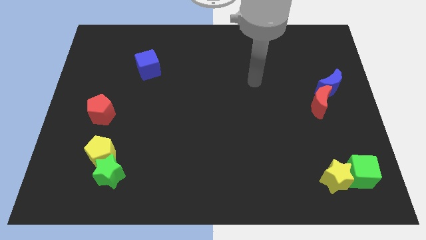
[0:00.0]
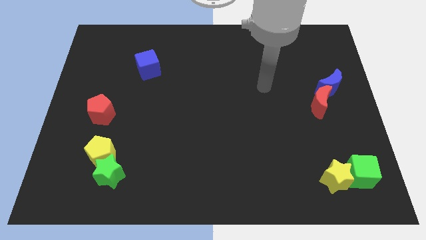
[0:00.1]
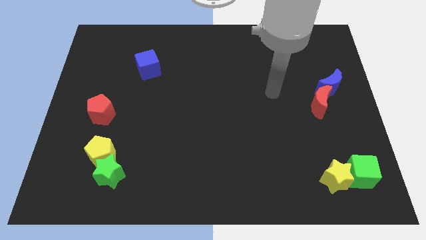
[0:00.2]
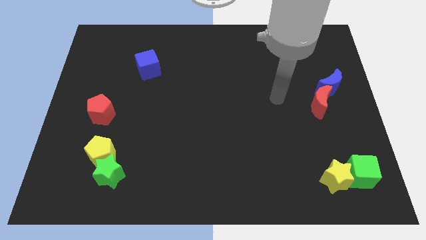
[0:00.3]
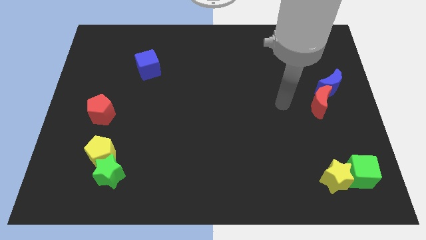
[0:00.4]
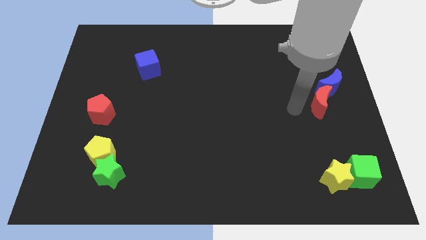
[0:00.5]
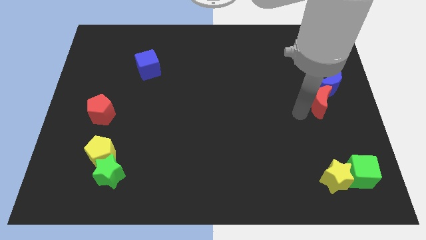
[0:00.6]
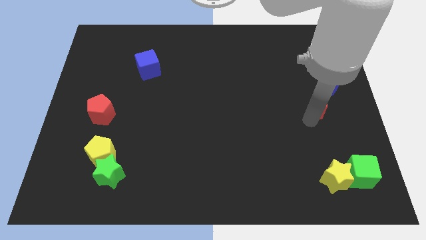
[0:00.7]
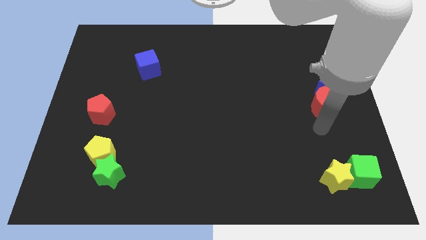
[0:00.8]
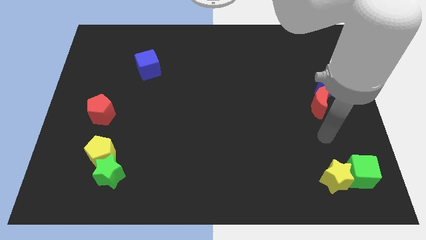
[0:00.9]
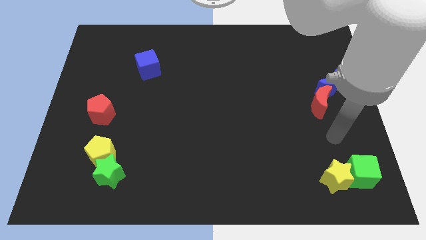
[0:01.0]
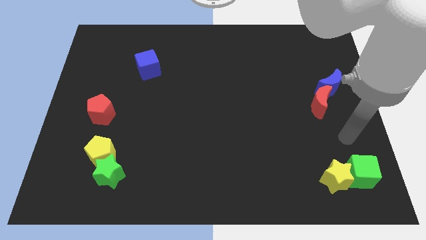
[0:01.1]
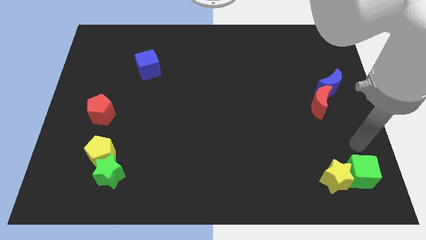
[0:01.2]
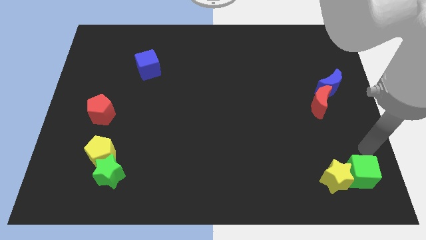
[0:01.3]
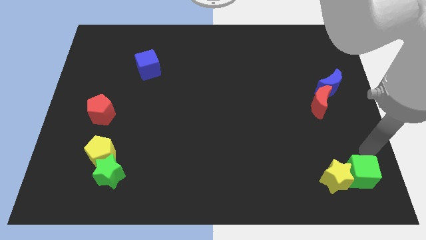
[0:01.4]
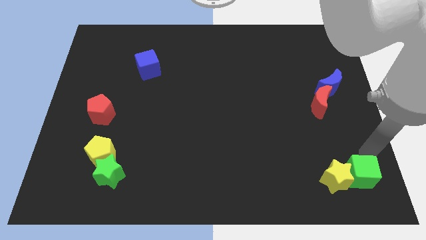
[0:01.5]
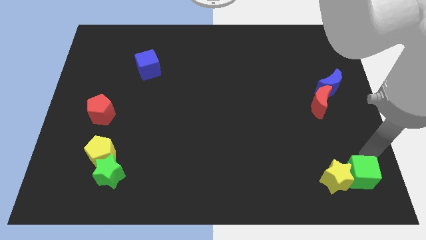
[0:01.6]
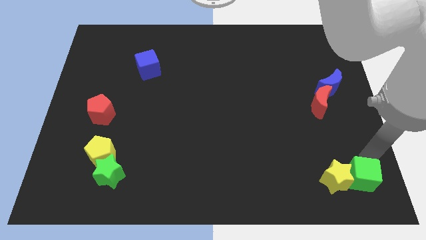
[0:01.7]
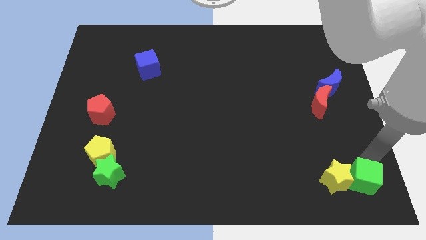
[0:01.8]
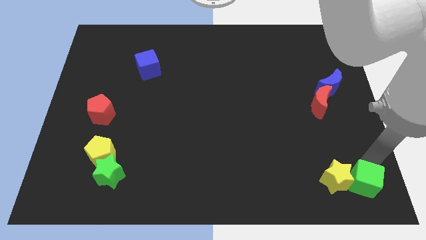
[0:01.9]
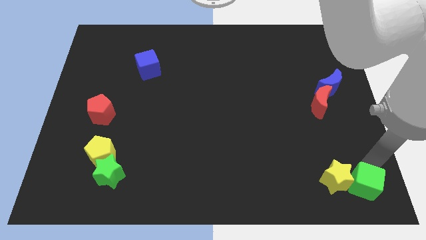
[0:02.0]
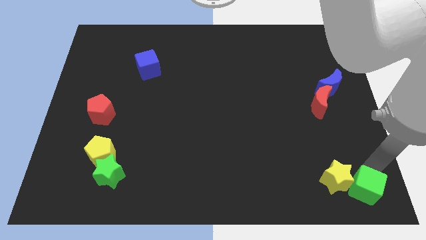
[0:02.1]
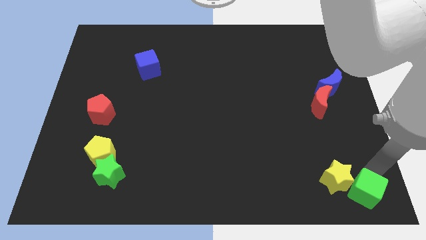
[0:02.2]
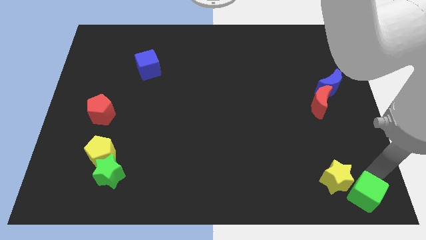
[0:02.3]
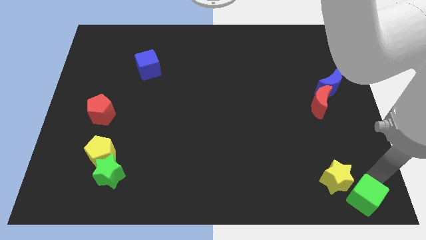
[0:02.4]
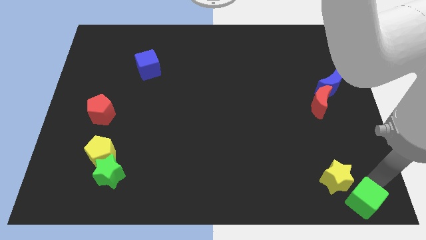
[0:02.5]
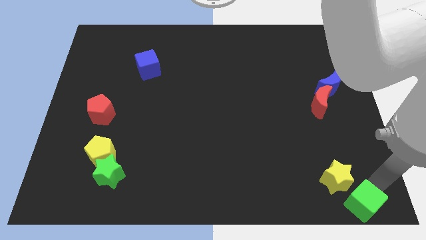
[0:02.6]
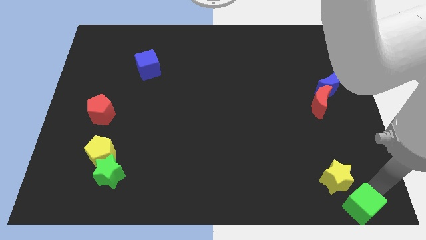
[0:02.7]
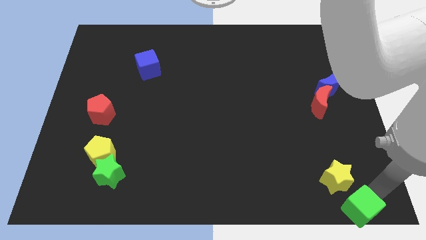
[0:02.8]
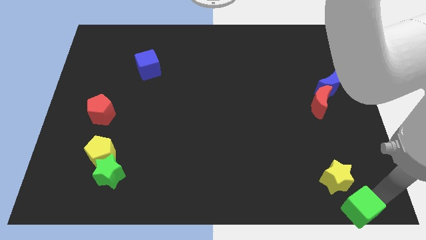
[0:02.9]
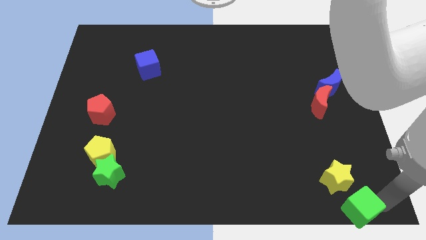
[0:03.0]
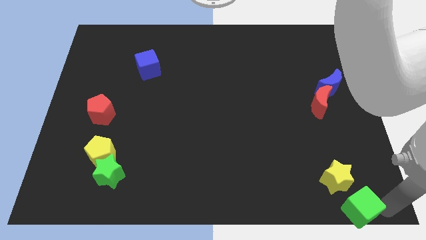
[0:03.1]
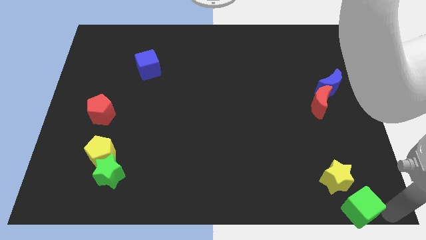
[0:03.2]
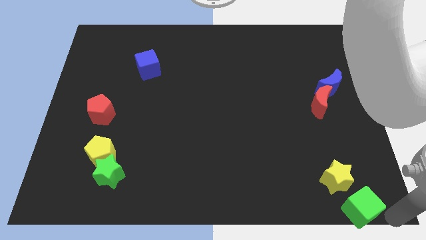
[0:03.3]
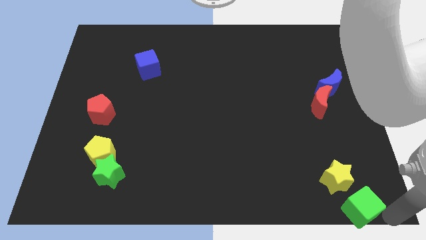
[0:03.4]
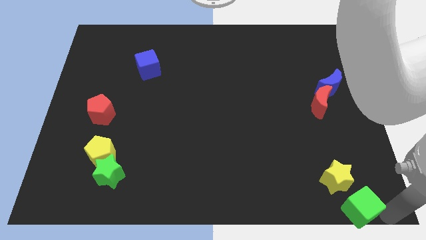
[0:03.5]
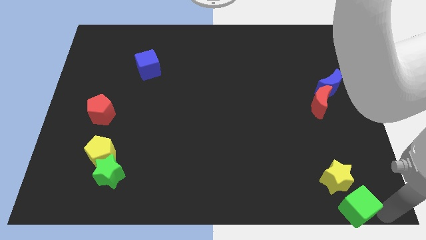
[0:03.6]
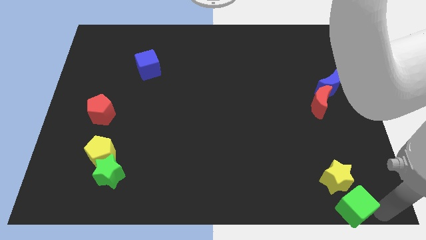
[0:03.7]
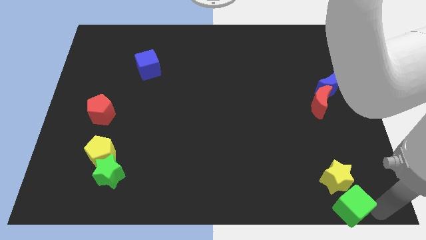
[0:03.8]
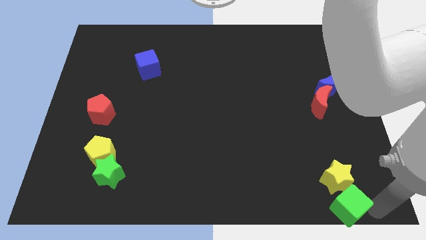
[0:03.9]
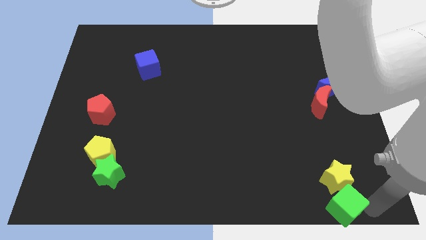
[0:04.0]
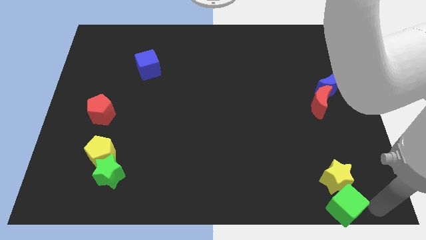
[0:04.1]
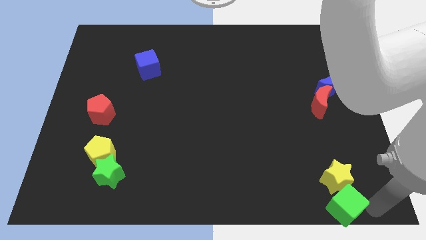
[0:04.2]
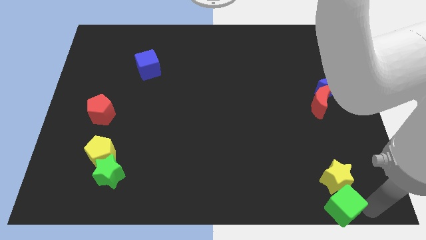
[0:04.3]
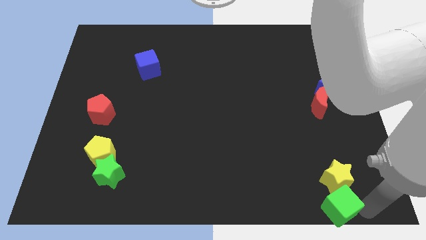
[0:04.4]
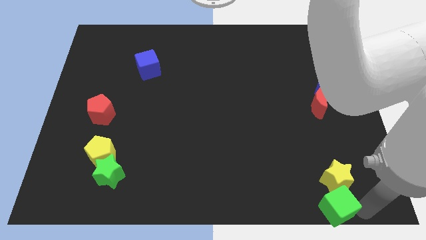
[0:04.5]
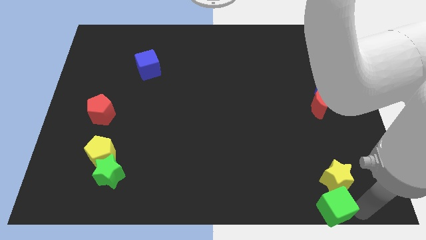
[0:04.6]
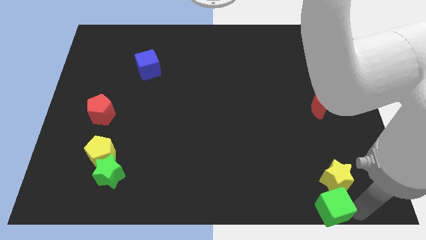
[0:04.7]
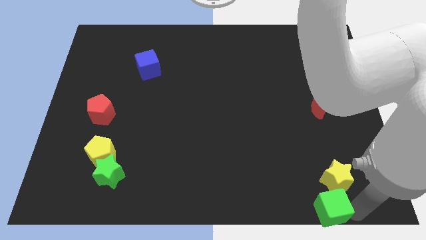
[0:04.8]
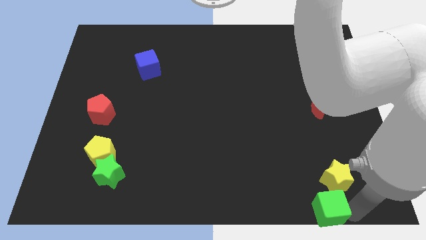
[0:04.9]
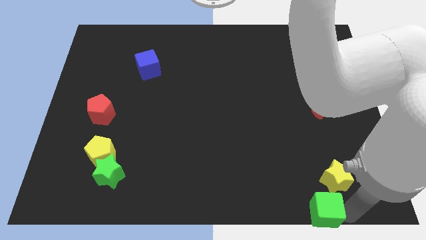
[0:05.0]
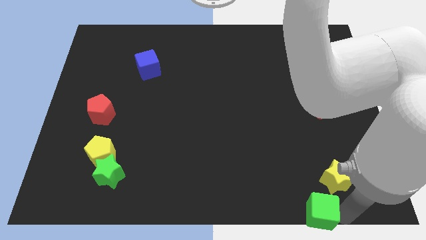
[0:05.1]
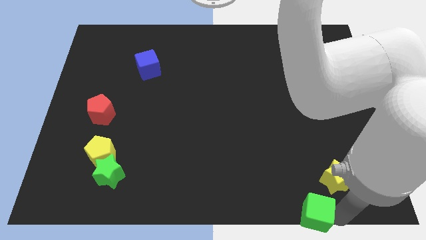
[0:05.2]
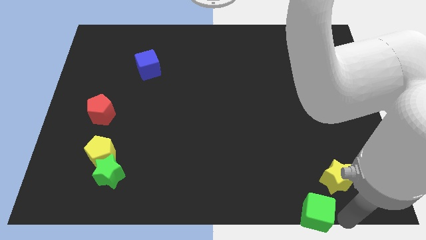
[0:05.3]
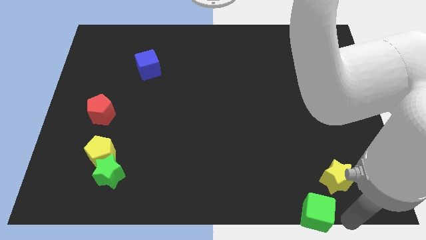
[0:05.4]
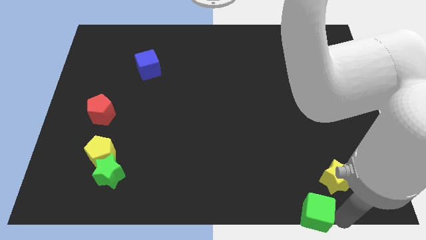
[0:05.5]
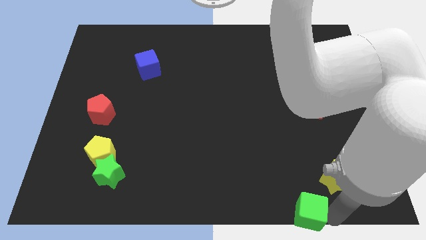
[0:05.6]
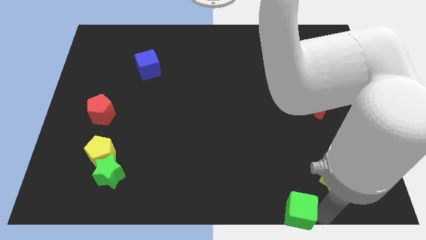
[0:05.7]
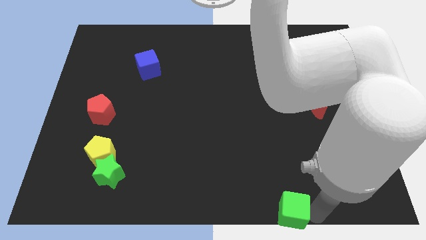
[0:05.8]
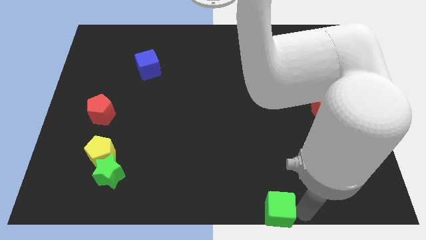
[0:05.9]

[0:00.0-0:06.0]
slide the green cube to the bottom side
